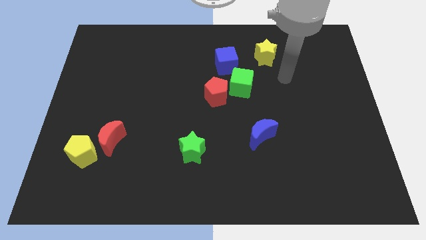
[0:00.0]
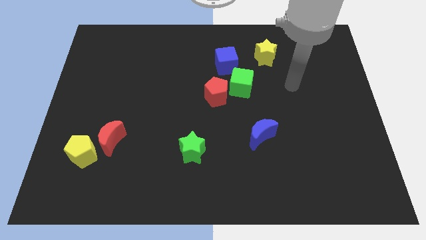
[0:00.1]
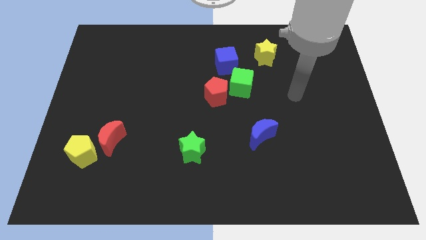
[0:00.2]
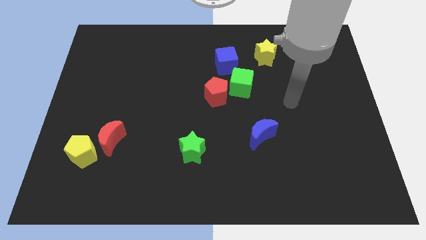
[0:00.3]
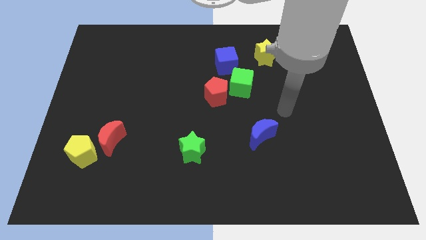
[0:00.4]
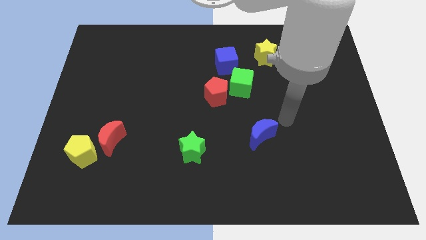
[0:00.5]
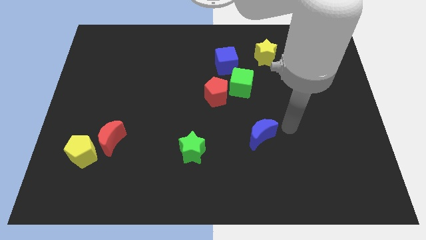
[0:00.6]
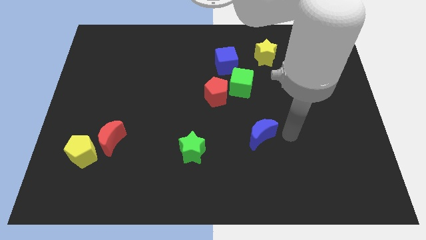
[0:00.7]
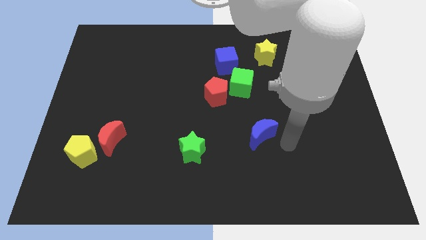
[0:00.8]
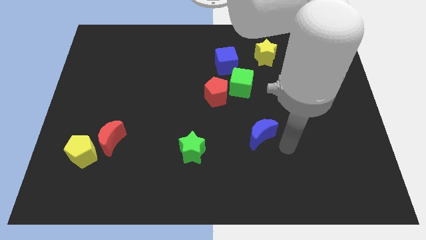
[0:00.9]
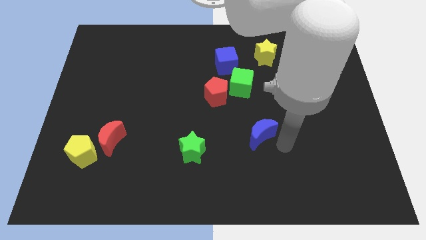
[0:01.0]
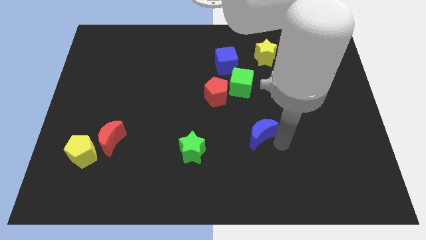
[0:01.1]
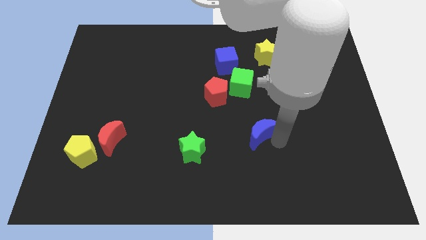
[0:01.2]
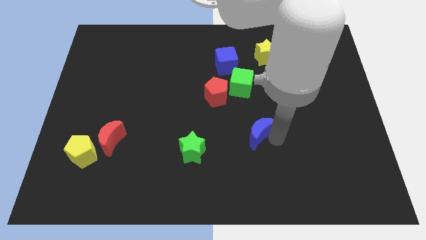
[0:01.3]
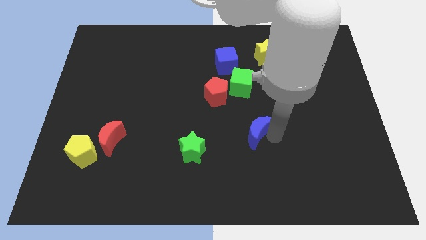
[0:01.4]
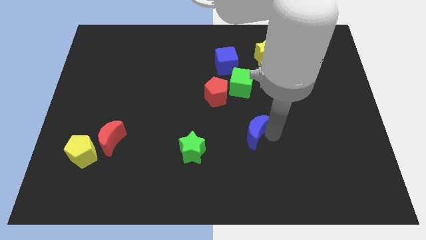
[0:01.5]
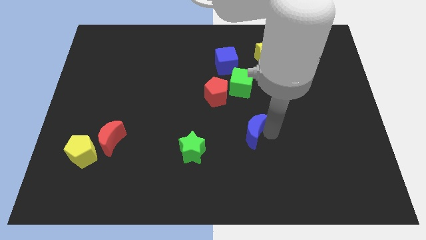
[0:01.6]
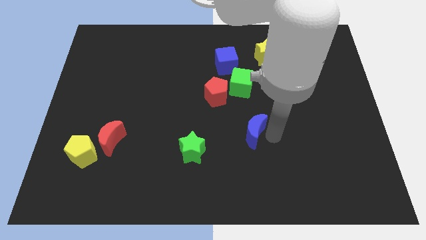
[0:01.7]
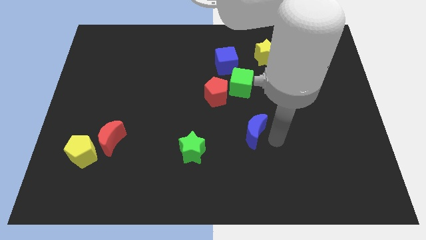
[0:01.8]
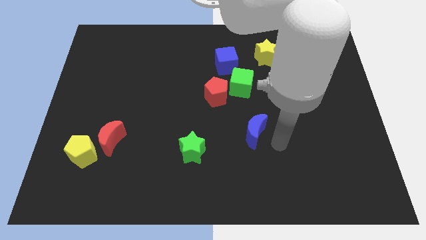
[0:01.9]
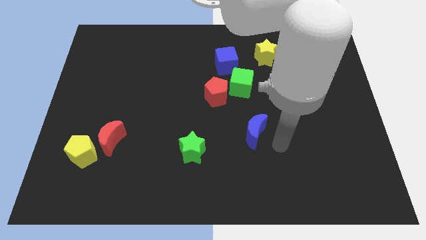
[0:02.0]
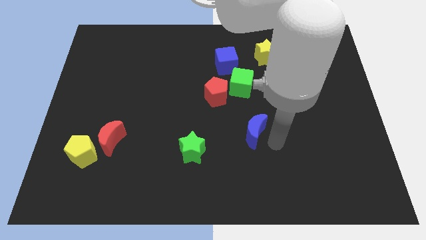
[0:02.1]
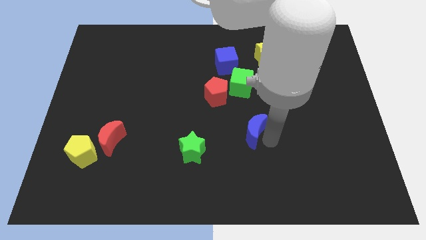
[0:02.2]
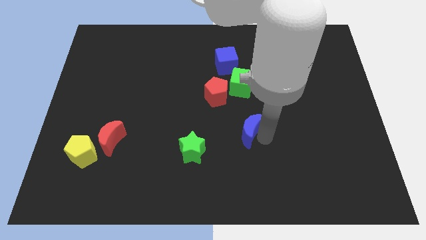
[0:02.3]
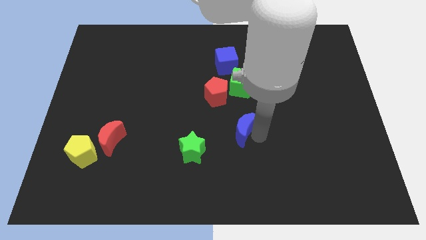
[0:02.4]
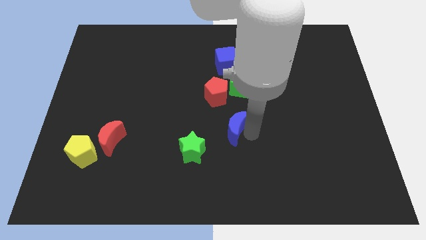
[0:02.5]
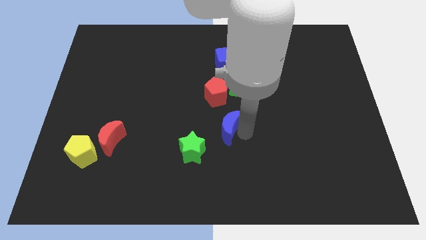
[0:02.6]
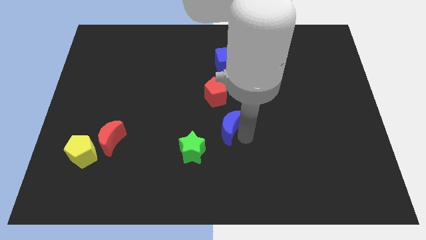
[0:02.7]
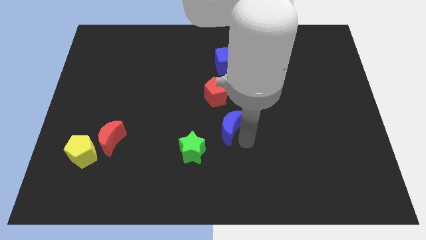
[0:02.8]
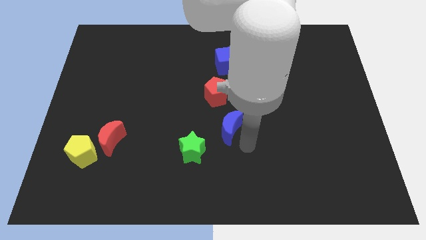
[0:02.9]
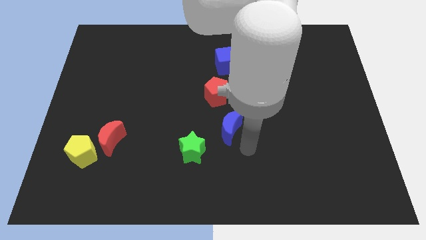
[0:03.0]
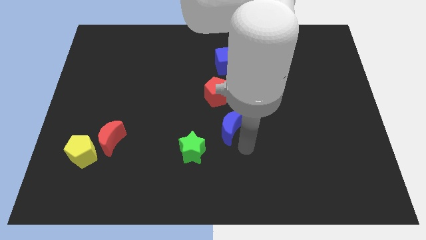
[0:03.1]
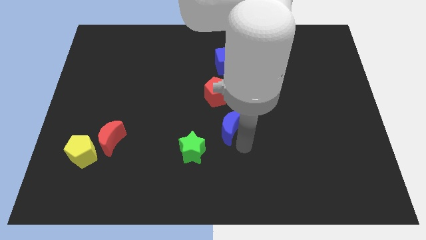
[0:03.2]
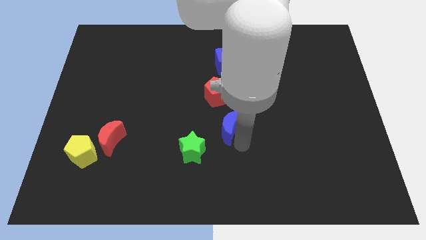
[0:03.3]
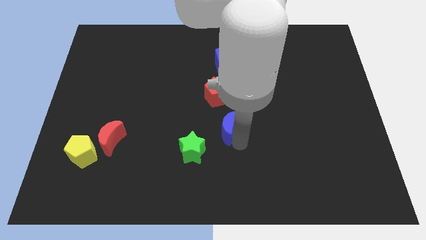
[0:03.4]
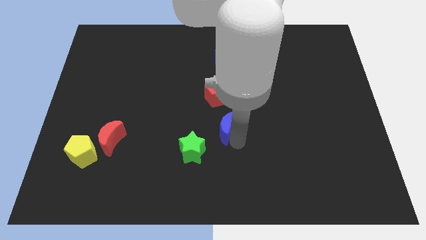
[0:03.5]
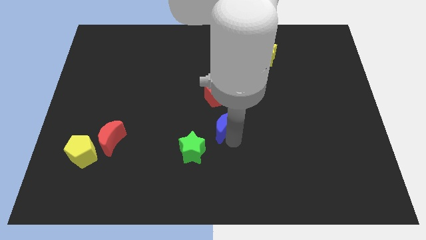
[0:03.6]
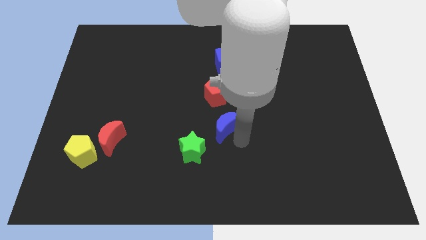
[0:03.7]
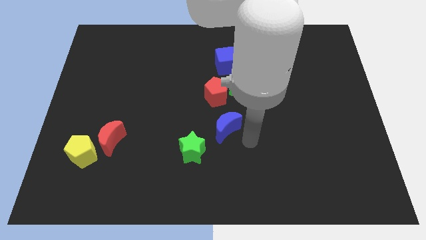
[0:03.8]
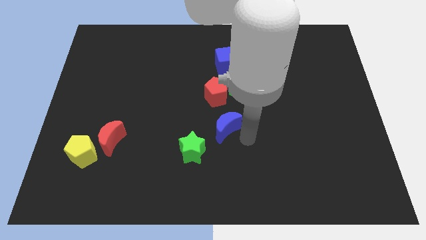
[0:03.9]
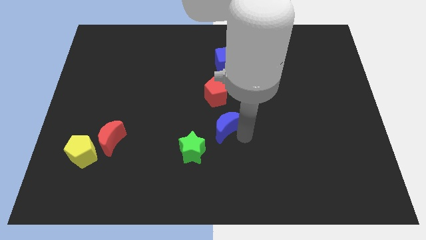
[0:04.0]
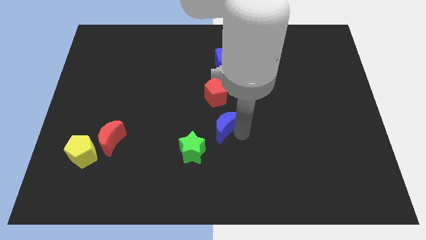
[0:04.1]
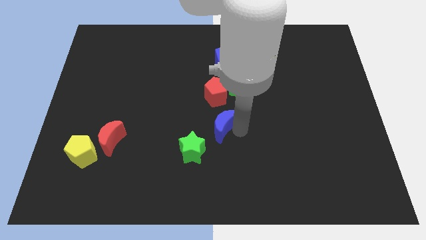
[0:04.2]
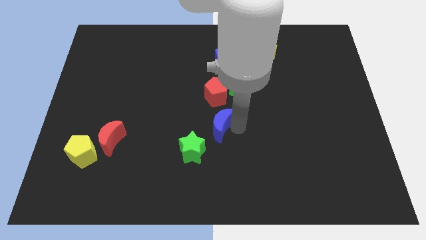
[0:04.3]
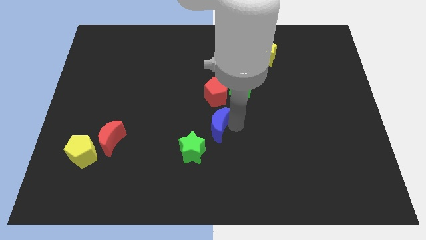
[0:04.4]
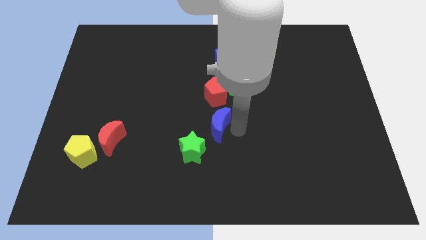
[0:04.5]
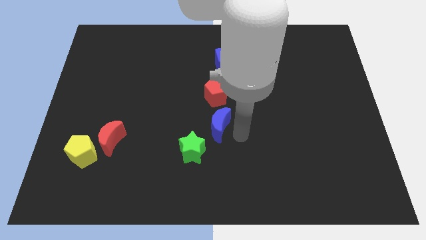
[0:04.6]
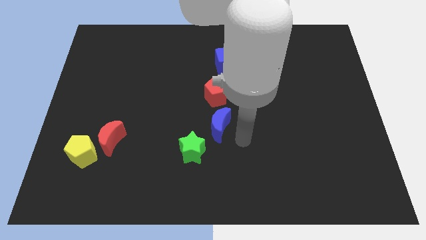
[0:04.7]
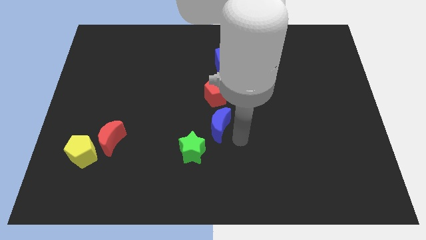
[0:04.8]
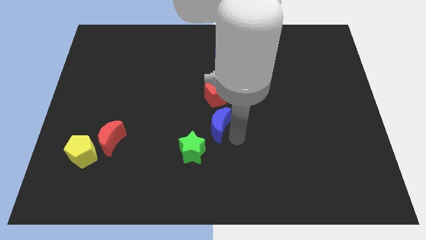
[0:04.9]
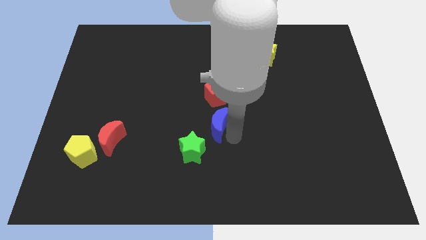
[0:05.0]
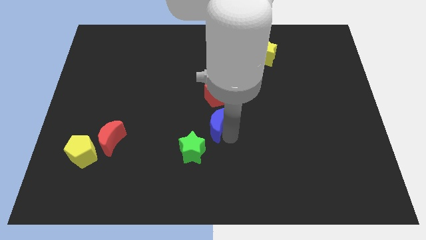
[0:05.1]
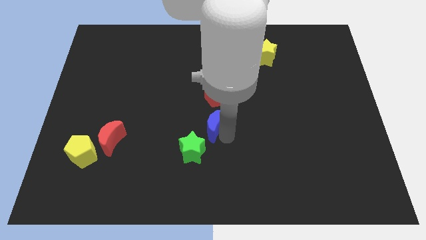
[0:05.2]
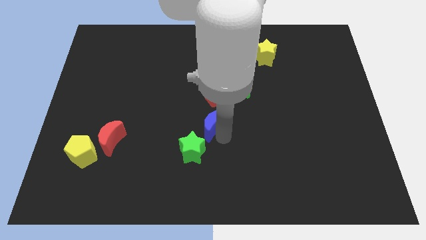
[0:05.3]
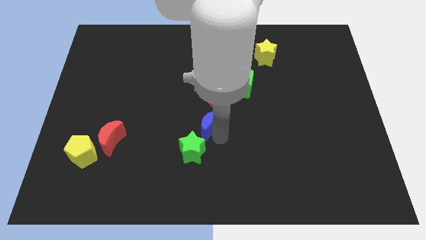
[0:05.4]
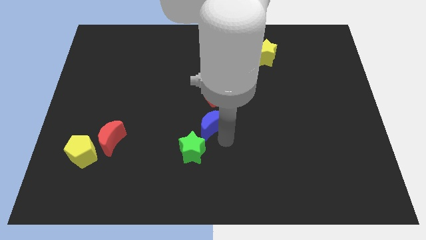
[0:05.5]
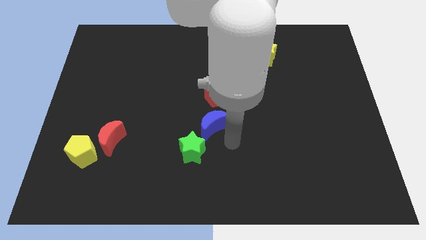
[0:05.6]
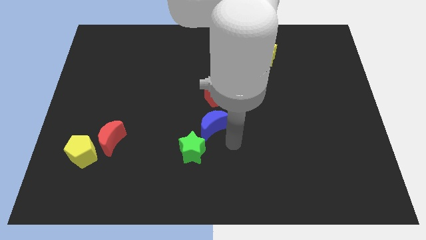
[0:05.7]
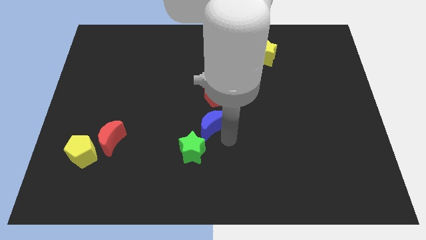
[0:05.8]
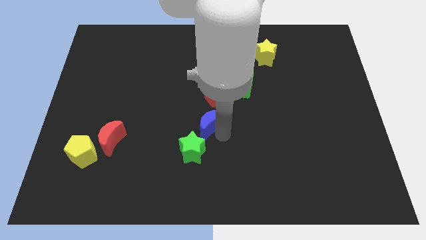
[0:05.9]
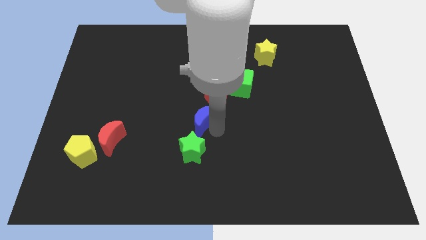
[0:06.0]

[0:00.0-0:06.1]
slide the blue moon to the bottom left side of the red pentagon

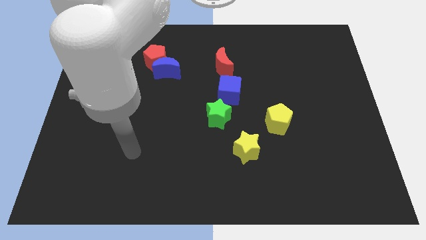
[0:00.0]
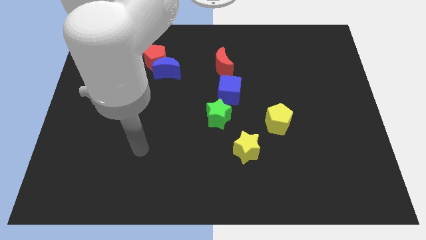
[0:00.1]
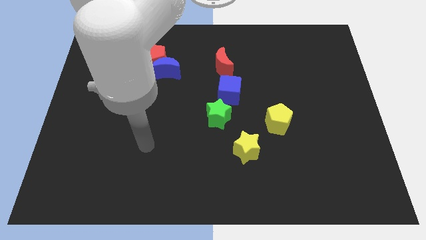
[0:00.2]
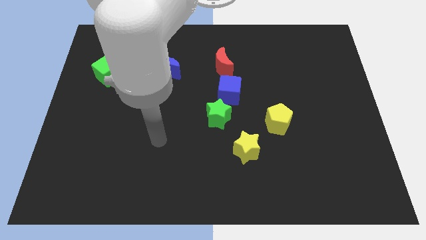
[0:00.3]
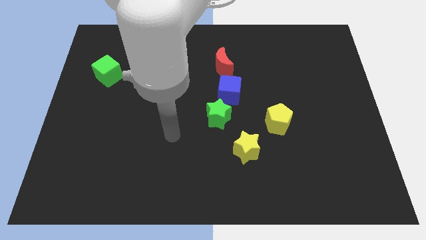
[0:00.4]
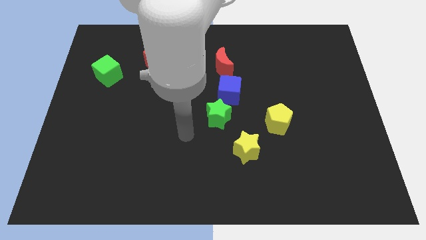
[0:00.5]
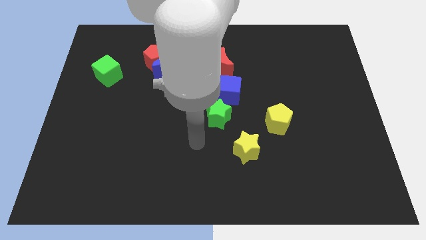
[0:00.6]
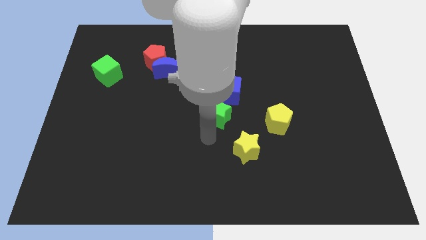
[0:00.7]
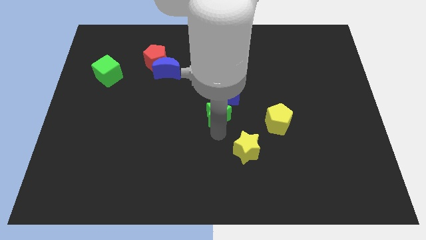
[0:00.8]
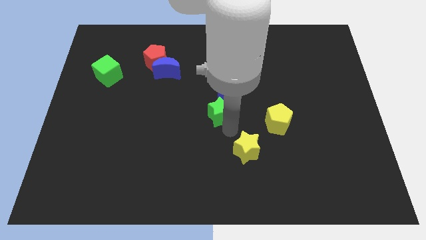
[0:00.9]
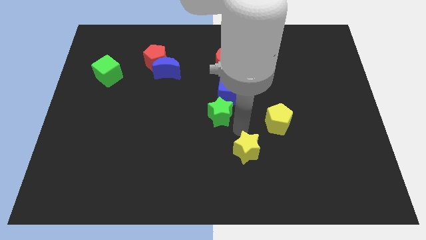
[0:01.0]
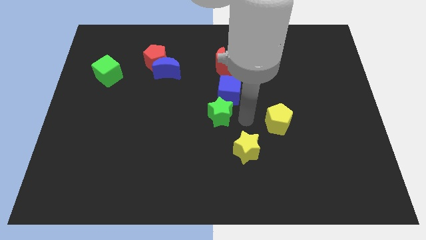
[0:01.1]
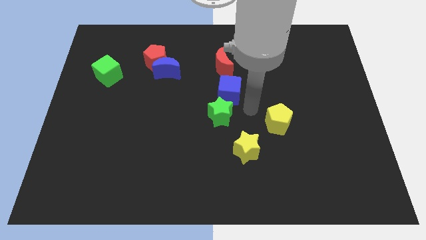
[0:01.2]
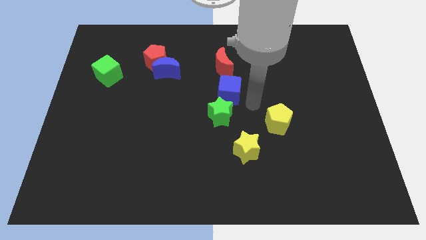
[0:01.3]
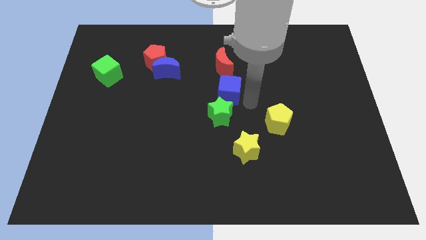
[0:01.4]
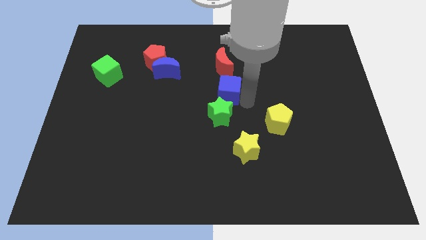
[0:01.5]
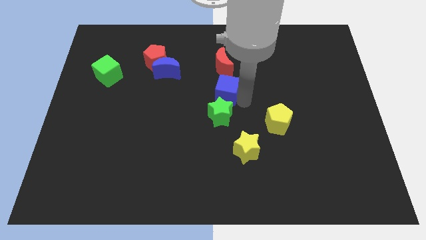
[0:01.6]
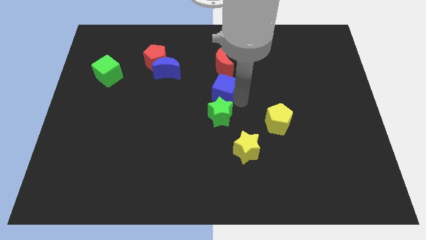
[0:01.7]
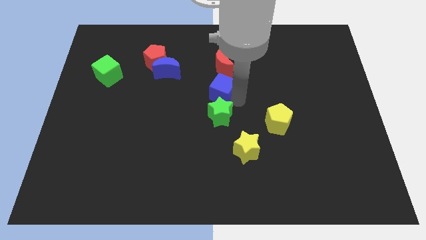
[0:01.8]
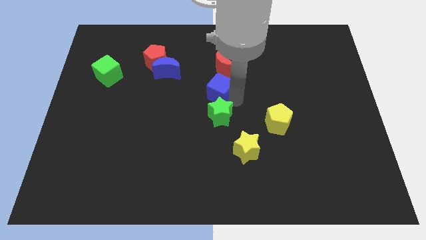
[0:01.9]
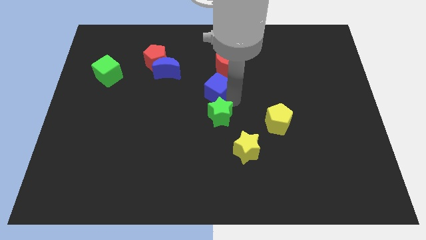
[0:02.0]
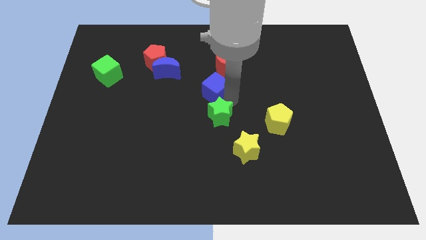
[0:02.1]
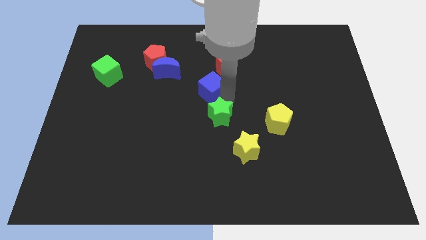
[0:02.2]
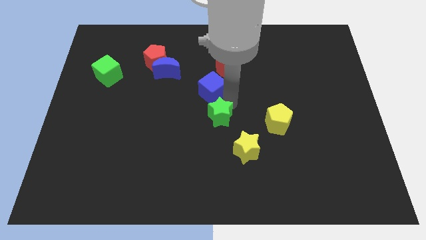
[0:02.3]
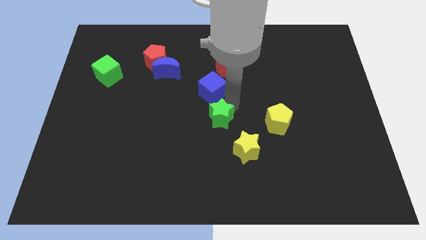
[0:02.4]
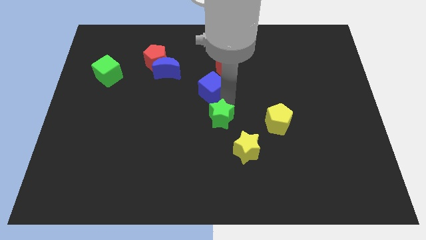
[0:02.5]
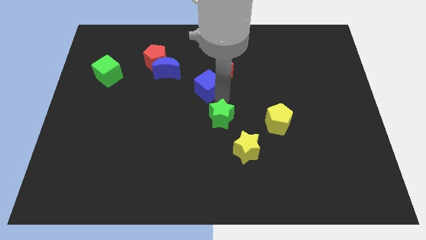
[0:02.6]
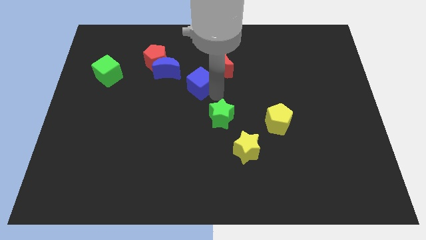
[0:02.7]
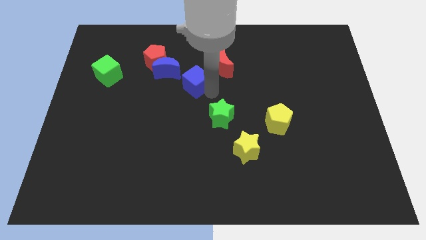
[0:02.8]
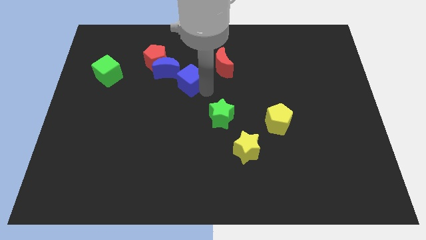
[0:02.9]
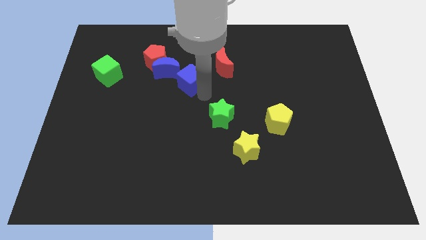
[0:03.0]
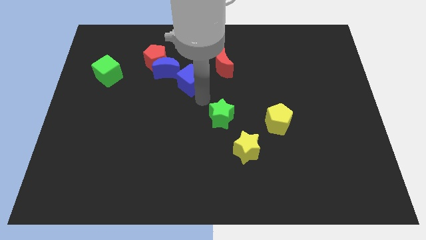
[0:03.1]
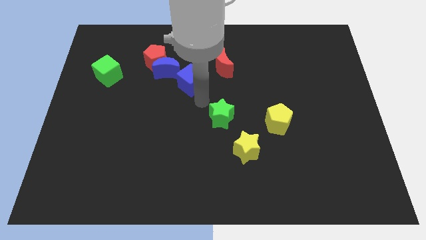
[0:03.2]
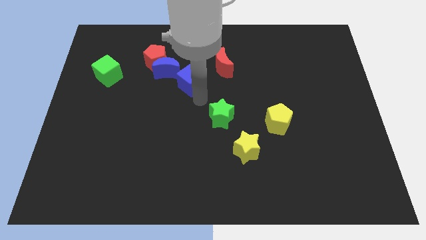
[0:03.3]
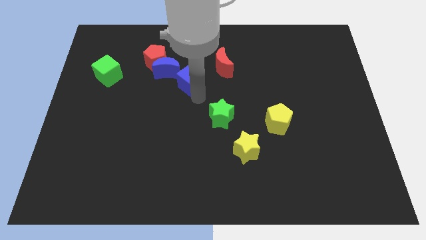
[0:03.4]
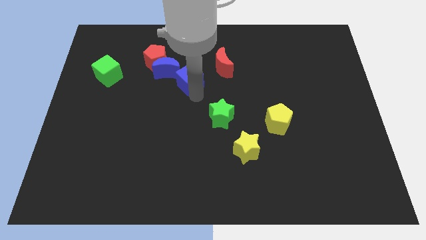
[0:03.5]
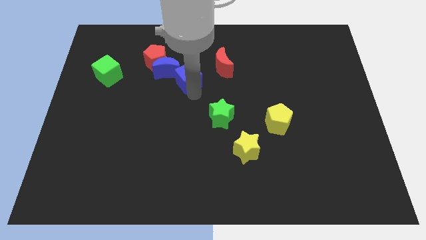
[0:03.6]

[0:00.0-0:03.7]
put the blue cube to the left of the red moon
